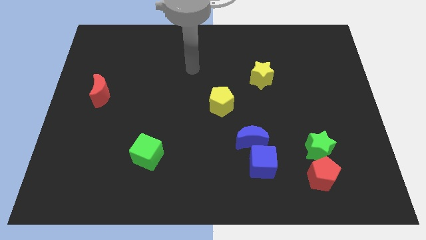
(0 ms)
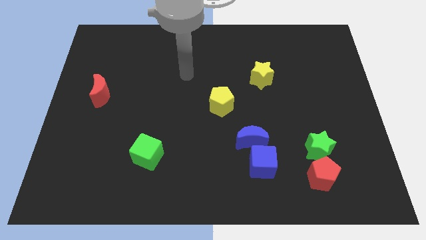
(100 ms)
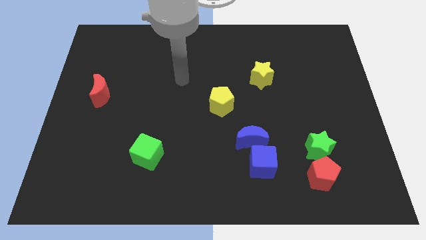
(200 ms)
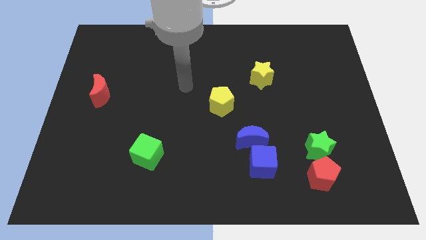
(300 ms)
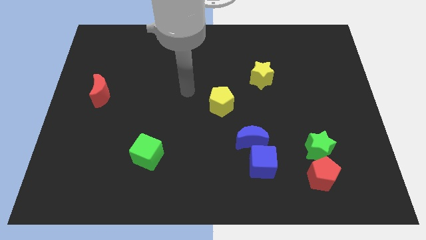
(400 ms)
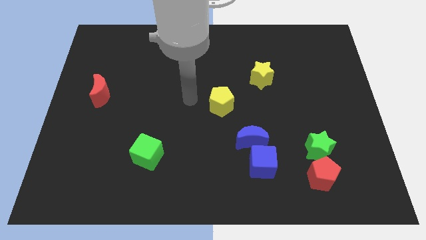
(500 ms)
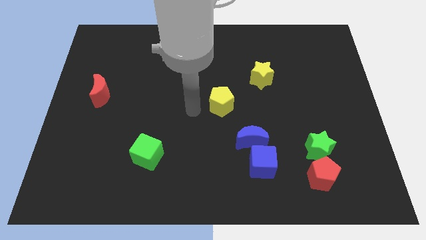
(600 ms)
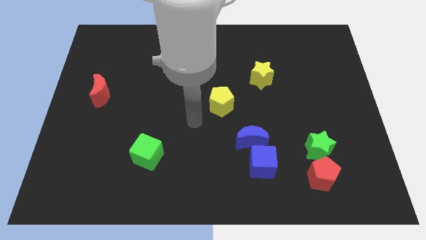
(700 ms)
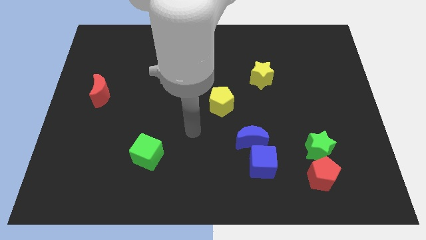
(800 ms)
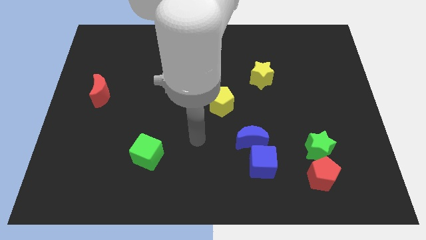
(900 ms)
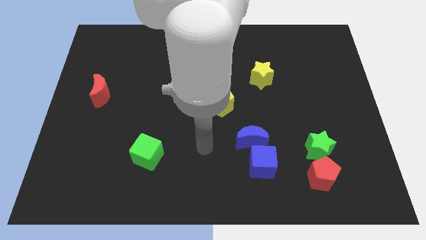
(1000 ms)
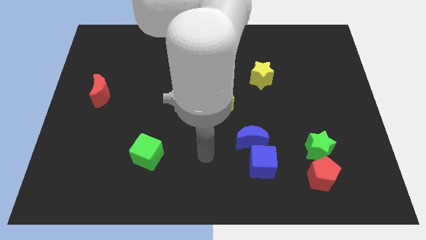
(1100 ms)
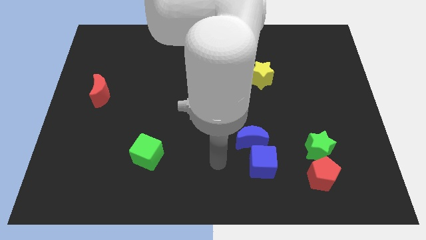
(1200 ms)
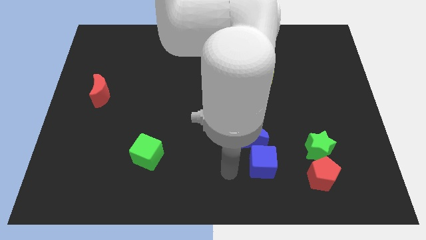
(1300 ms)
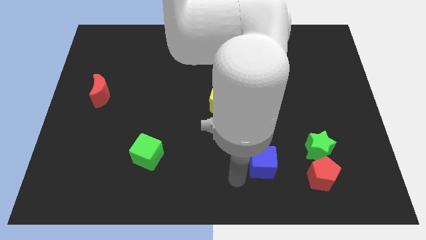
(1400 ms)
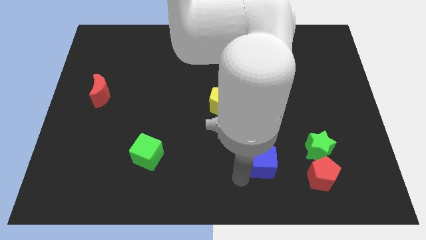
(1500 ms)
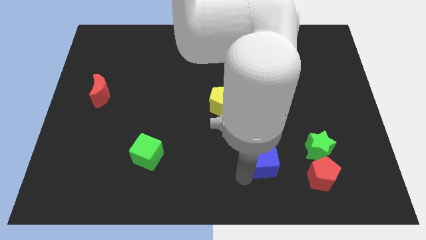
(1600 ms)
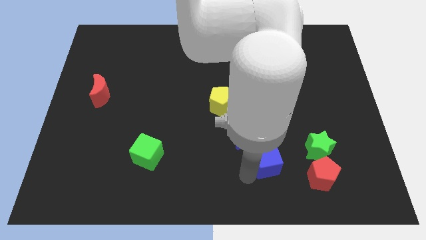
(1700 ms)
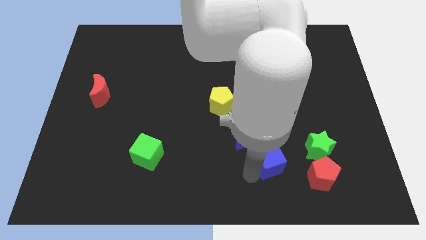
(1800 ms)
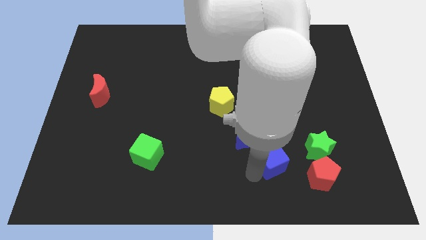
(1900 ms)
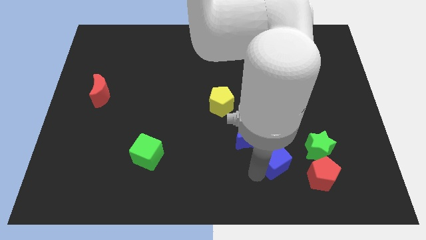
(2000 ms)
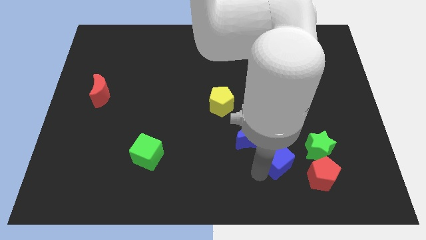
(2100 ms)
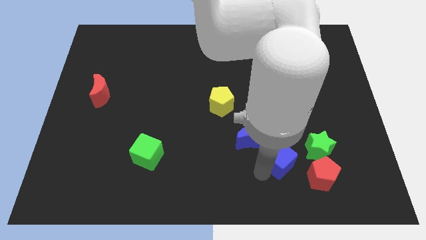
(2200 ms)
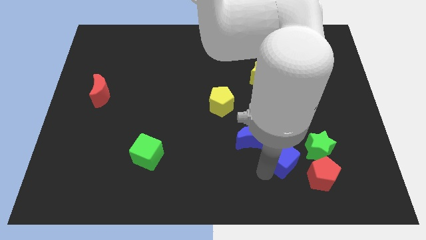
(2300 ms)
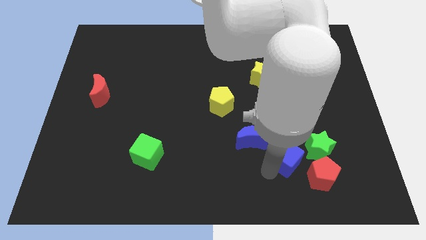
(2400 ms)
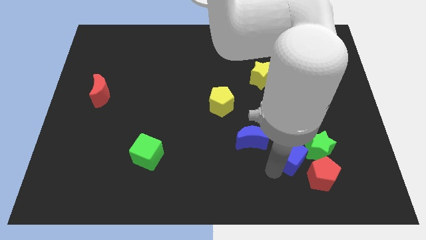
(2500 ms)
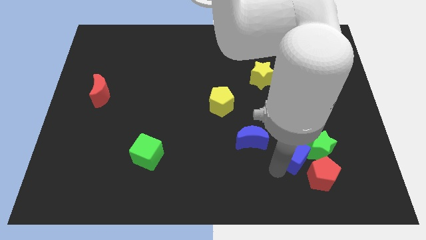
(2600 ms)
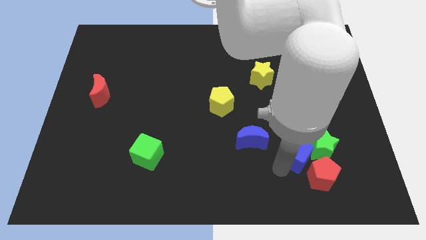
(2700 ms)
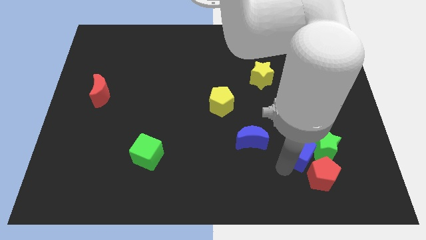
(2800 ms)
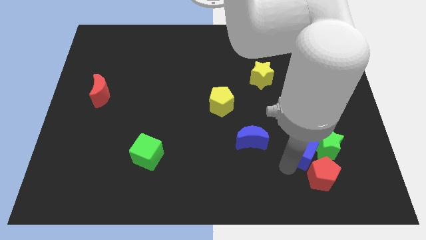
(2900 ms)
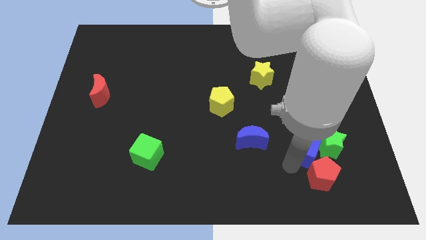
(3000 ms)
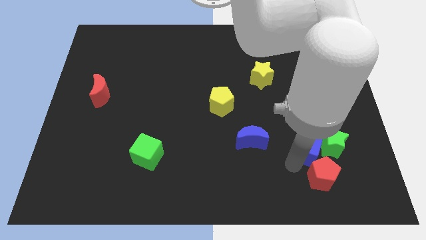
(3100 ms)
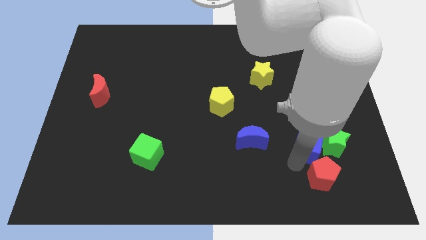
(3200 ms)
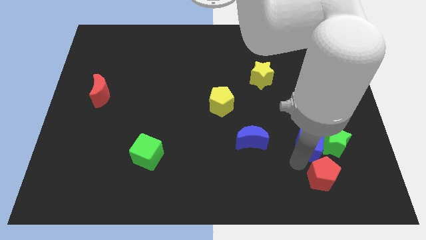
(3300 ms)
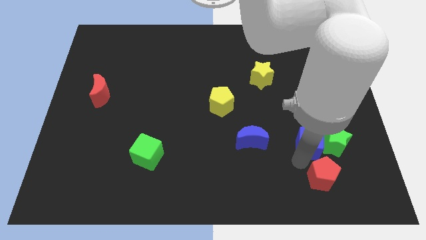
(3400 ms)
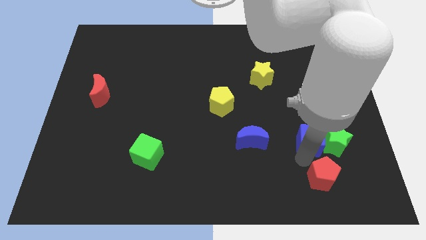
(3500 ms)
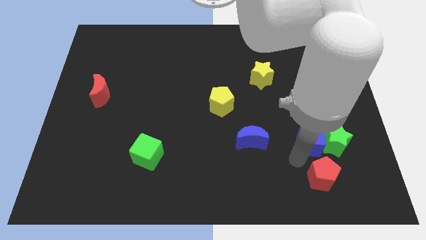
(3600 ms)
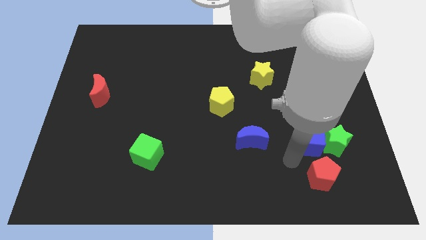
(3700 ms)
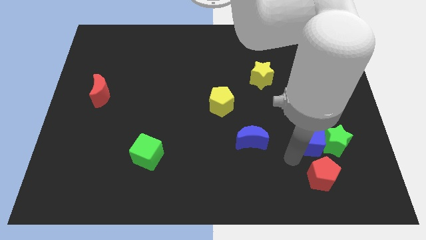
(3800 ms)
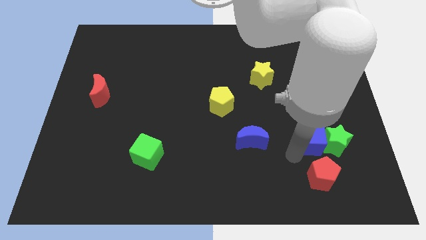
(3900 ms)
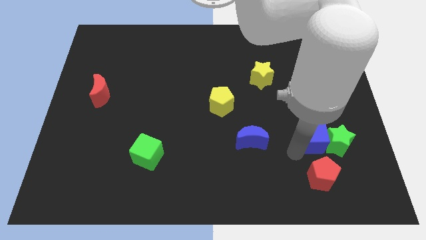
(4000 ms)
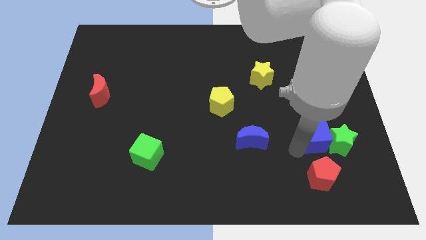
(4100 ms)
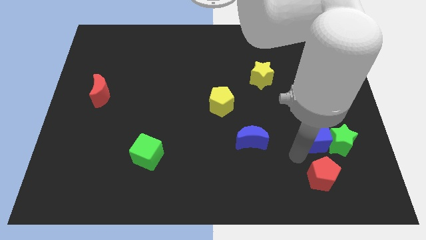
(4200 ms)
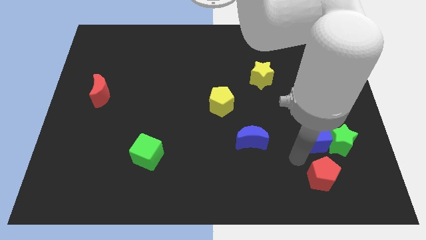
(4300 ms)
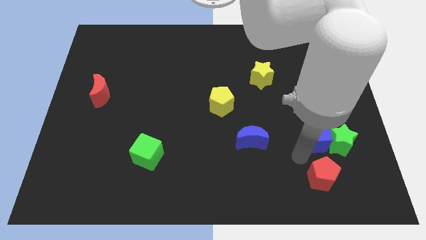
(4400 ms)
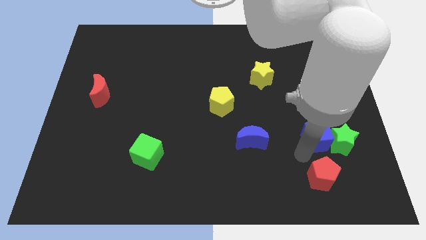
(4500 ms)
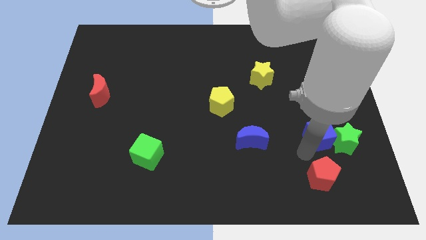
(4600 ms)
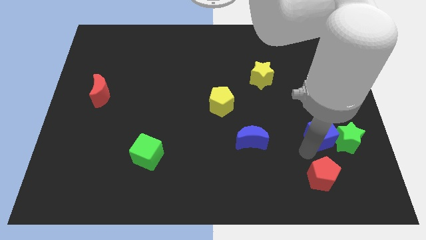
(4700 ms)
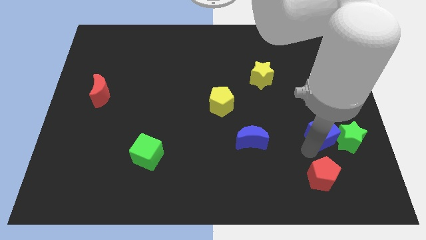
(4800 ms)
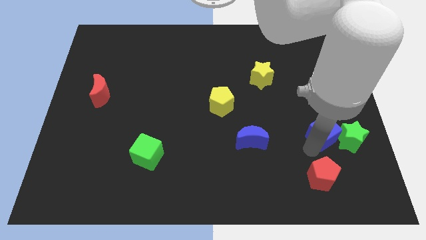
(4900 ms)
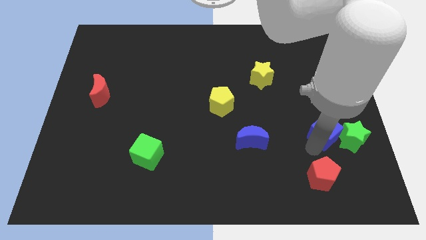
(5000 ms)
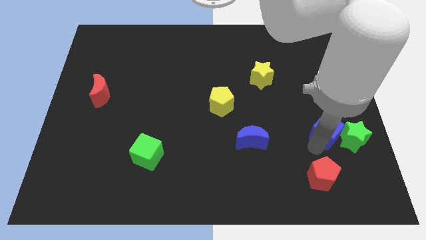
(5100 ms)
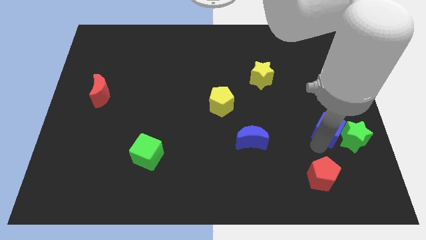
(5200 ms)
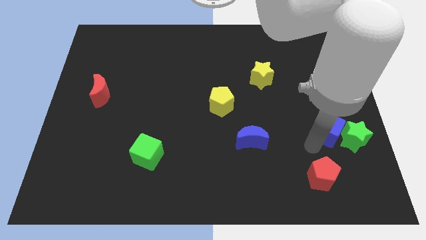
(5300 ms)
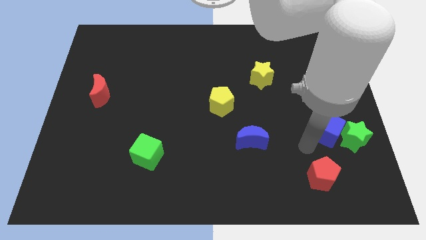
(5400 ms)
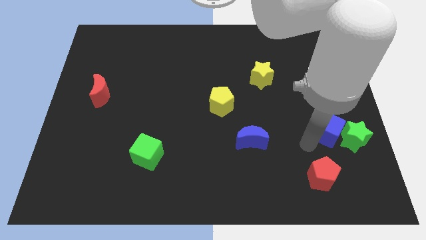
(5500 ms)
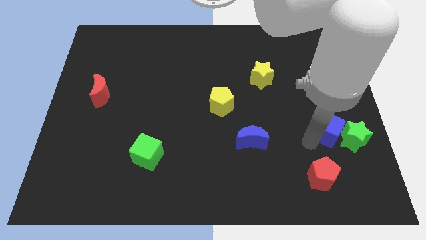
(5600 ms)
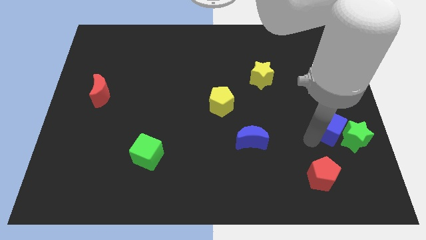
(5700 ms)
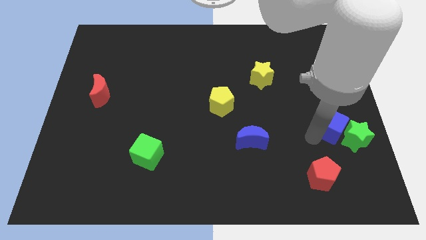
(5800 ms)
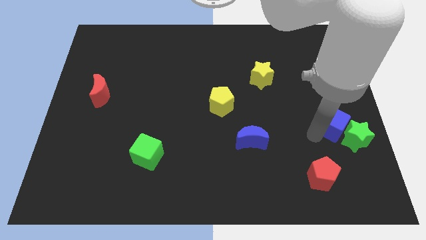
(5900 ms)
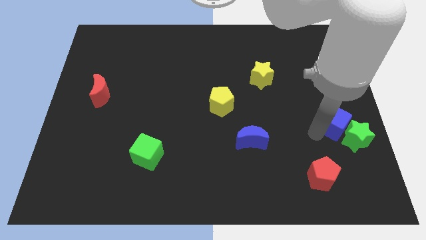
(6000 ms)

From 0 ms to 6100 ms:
push the blue cube to the right side
